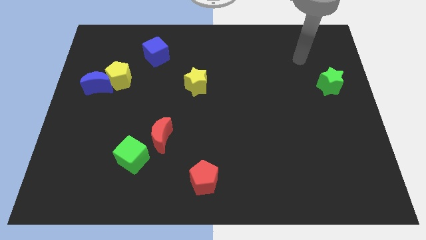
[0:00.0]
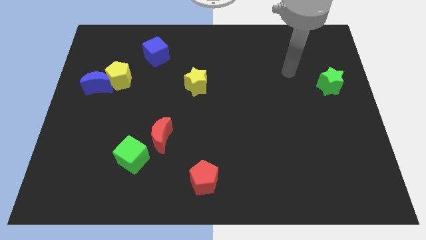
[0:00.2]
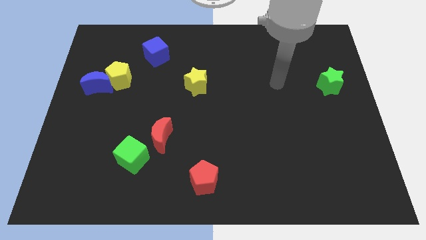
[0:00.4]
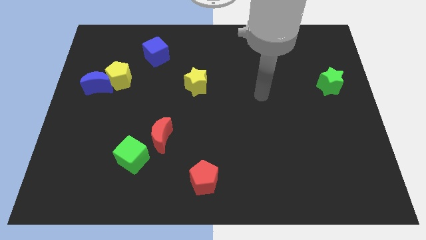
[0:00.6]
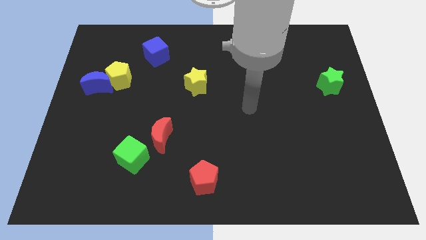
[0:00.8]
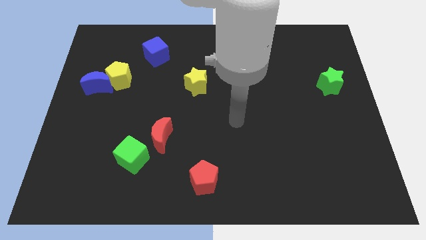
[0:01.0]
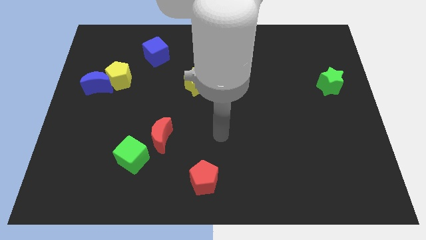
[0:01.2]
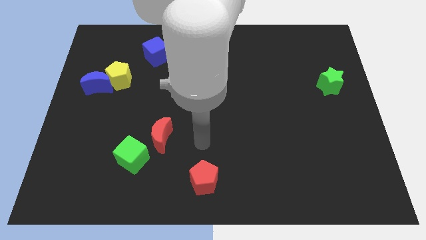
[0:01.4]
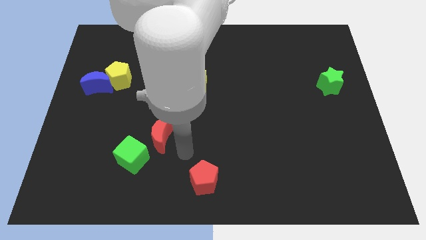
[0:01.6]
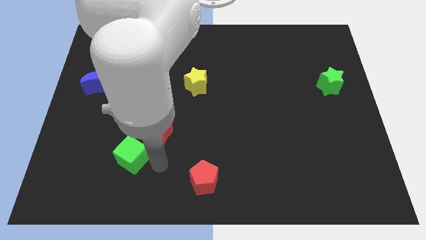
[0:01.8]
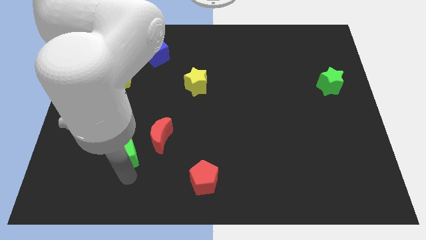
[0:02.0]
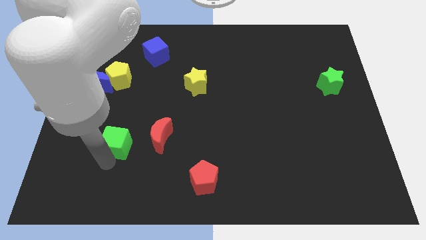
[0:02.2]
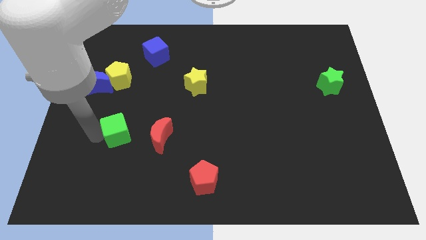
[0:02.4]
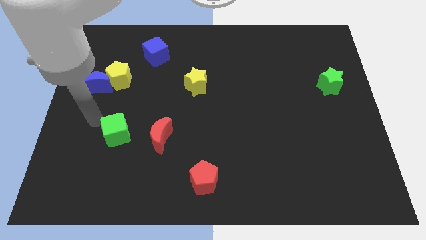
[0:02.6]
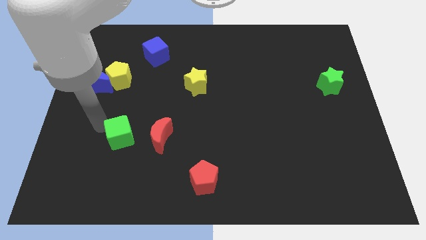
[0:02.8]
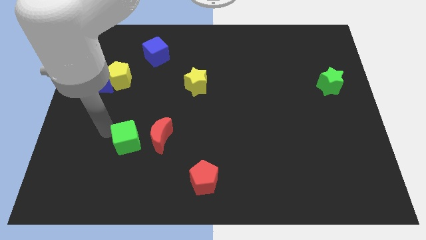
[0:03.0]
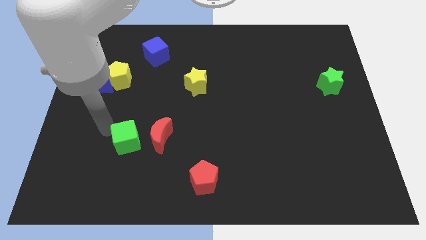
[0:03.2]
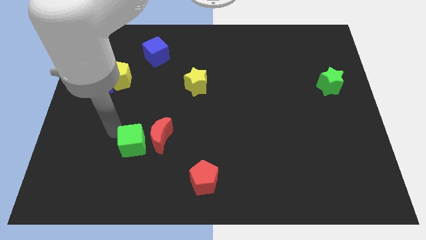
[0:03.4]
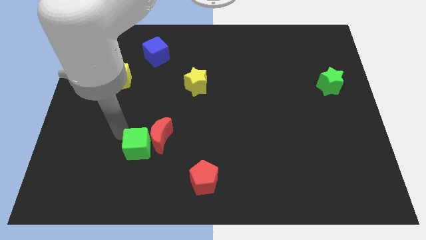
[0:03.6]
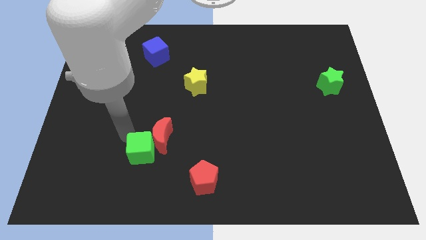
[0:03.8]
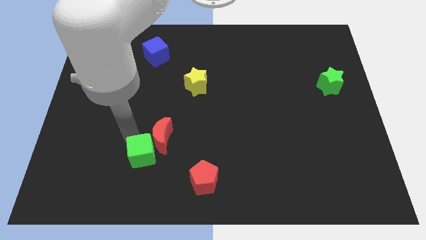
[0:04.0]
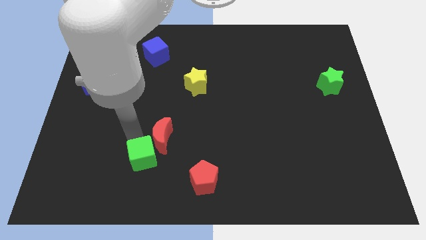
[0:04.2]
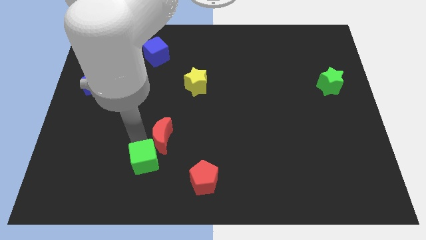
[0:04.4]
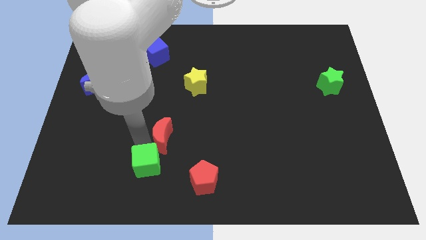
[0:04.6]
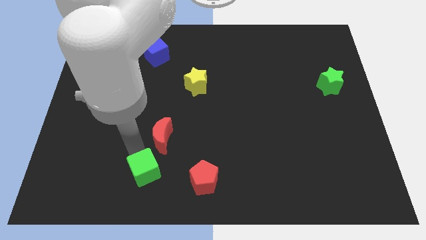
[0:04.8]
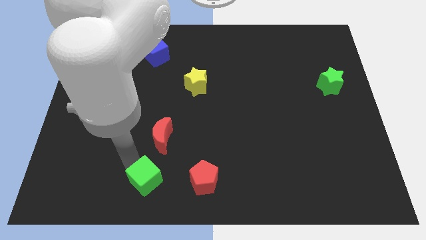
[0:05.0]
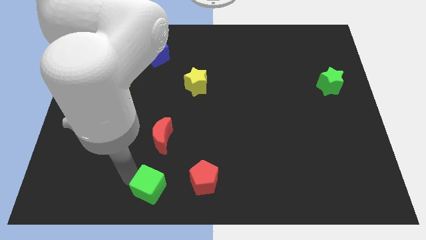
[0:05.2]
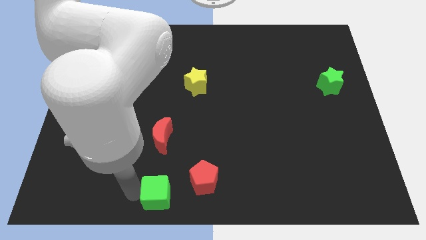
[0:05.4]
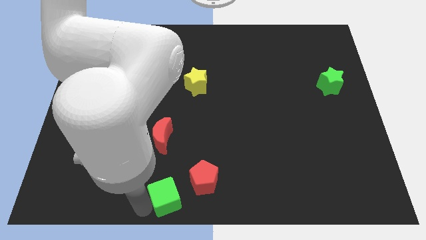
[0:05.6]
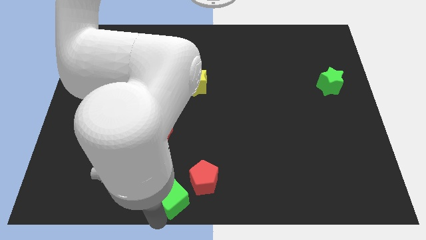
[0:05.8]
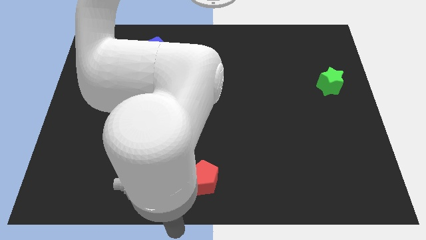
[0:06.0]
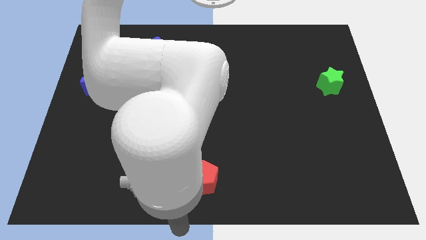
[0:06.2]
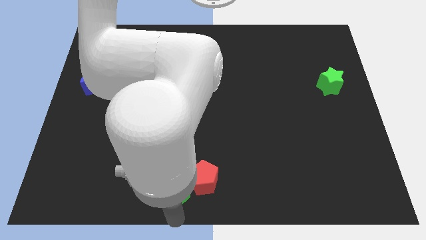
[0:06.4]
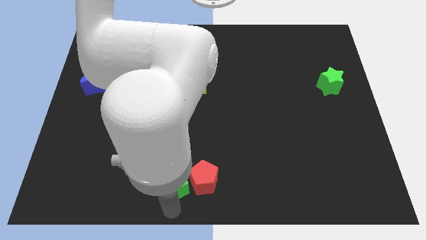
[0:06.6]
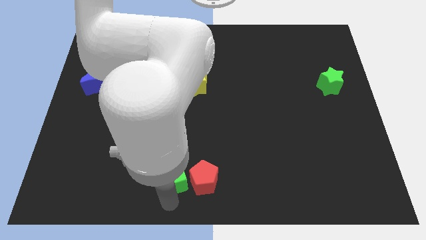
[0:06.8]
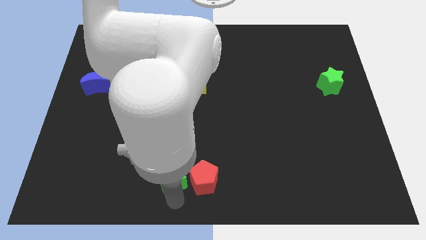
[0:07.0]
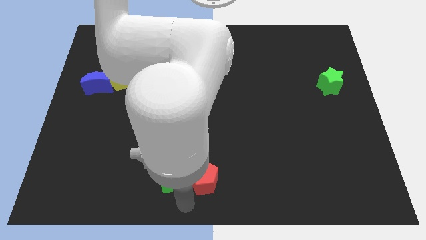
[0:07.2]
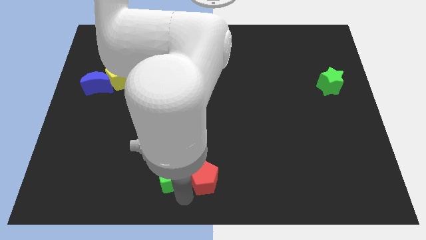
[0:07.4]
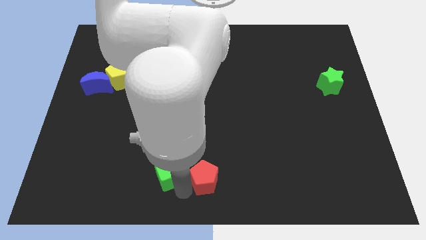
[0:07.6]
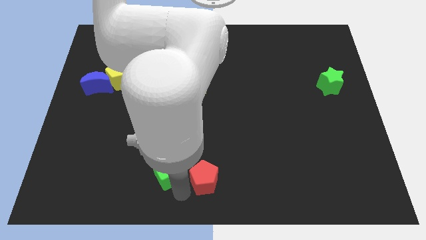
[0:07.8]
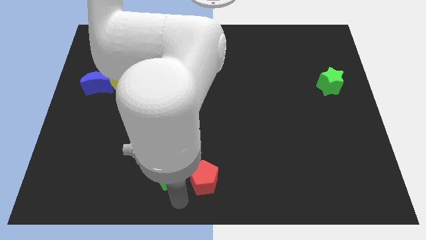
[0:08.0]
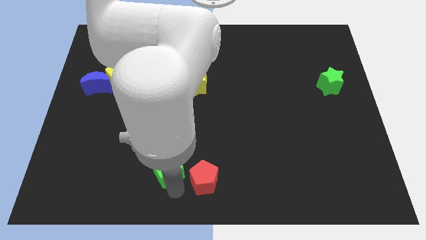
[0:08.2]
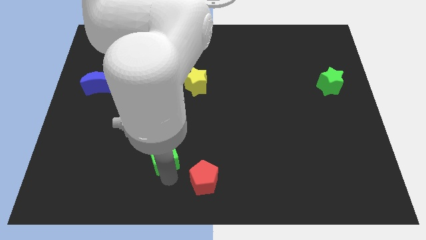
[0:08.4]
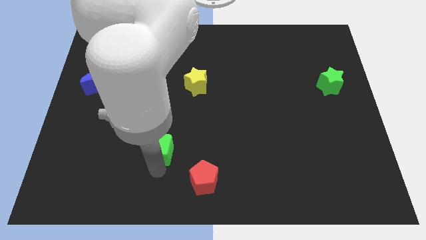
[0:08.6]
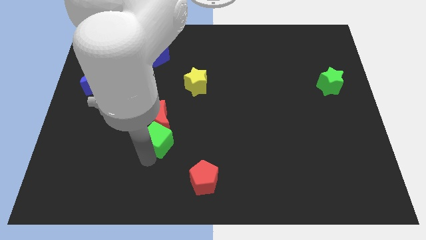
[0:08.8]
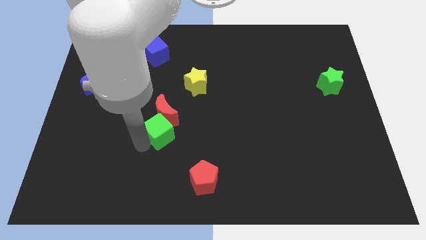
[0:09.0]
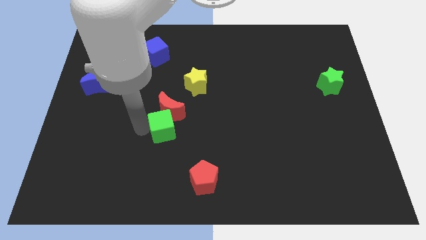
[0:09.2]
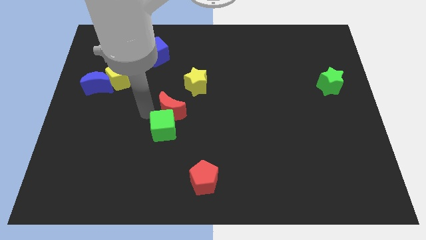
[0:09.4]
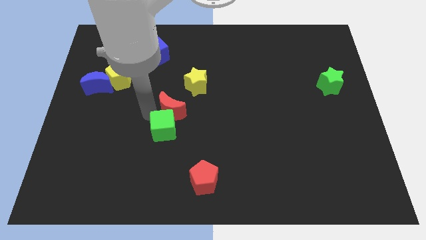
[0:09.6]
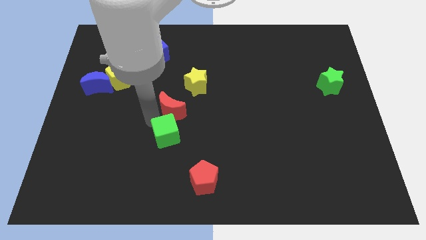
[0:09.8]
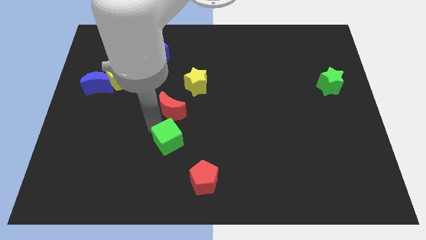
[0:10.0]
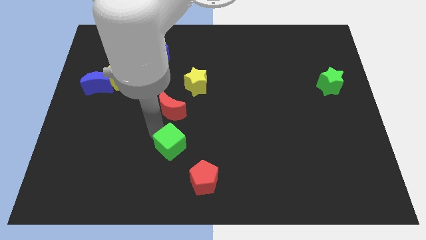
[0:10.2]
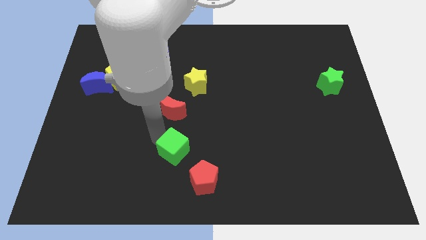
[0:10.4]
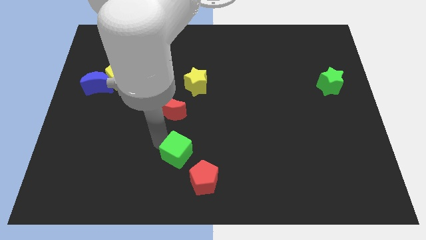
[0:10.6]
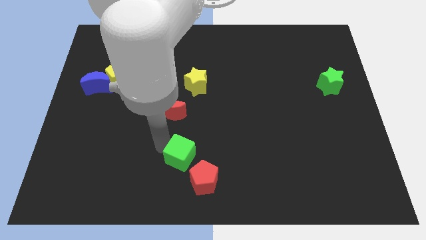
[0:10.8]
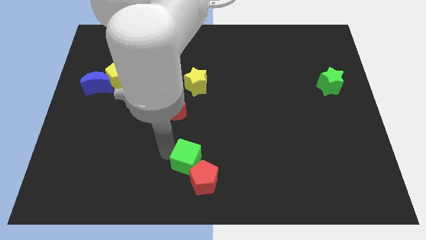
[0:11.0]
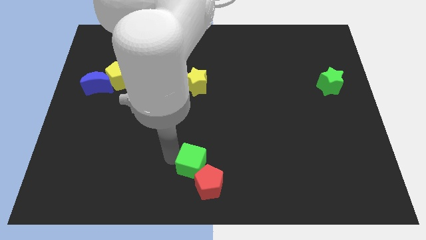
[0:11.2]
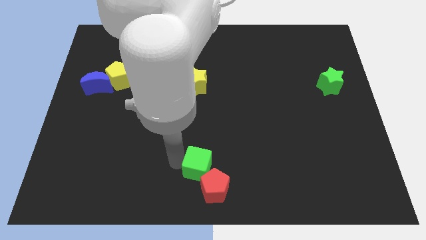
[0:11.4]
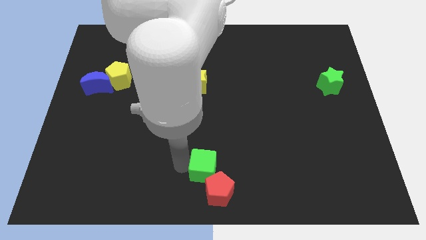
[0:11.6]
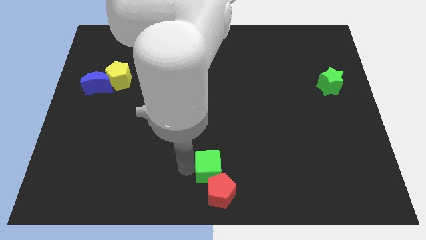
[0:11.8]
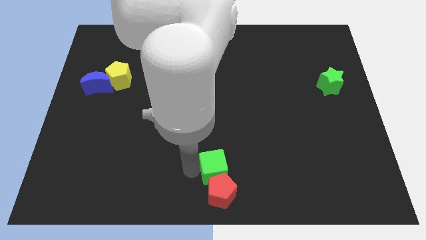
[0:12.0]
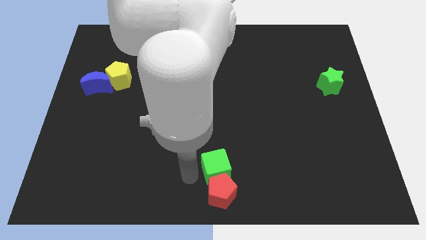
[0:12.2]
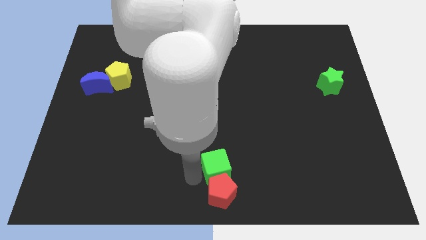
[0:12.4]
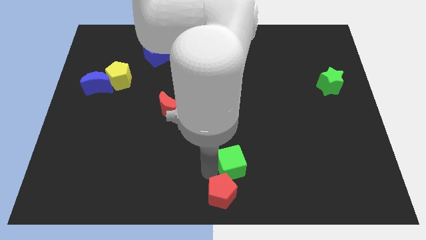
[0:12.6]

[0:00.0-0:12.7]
slide the green cube to the right

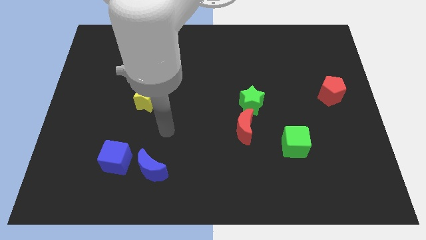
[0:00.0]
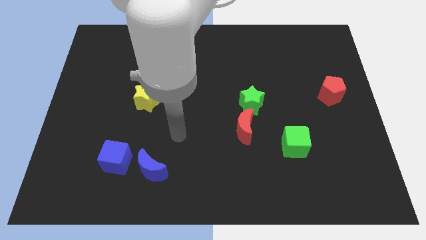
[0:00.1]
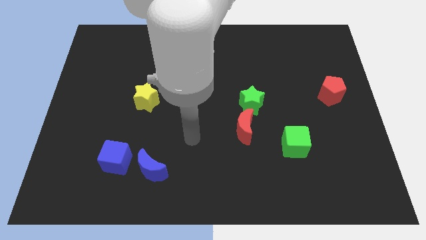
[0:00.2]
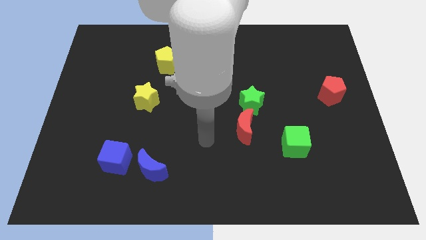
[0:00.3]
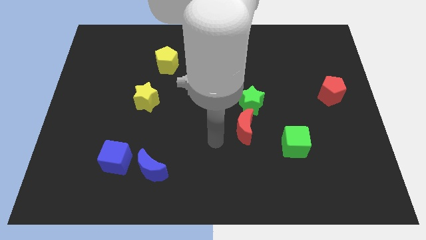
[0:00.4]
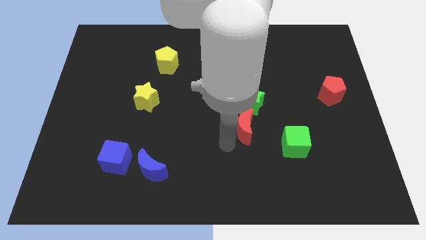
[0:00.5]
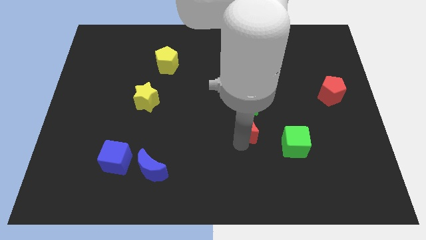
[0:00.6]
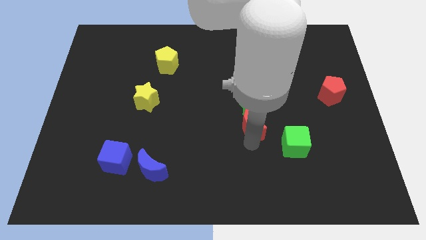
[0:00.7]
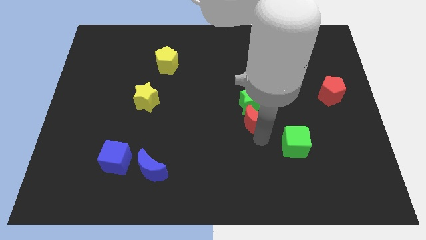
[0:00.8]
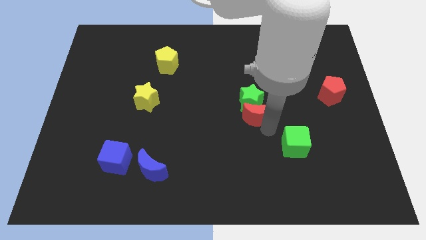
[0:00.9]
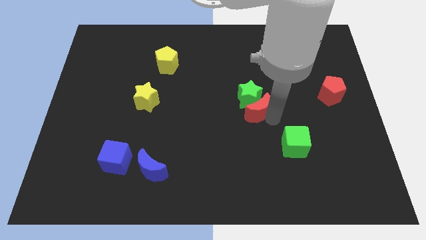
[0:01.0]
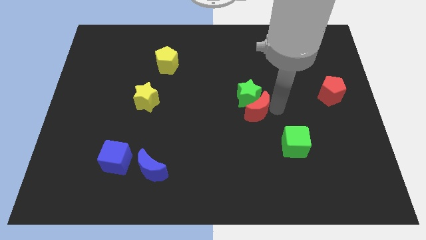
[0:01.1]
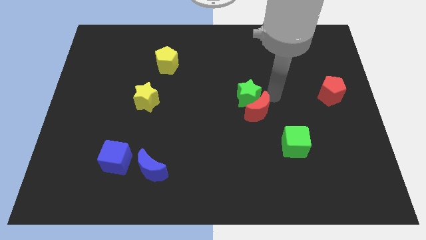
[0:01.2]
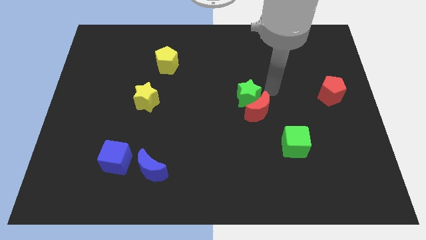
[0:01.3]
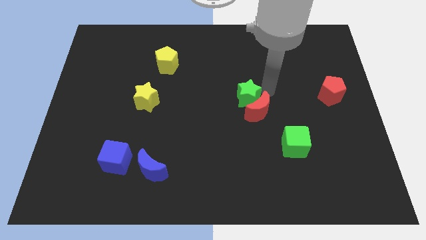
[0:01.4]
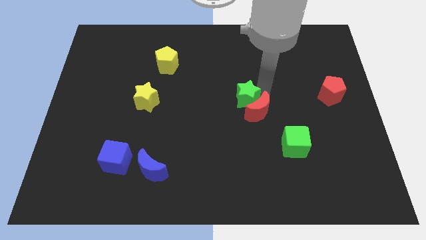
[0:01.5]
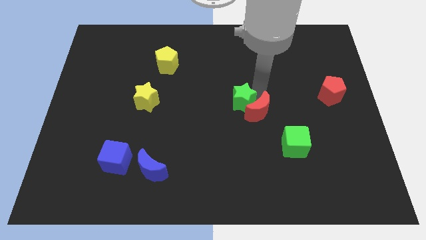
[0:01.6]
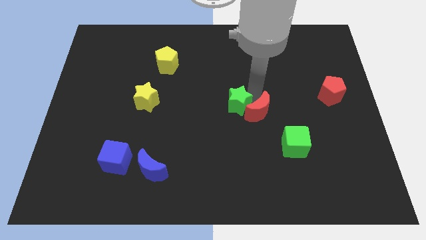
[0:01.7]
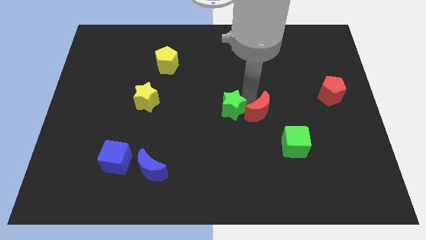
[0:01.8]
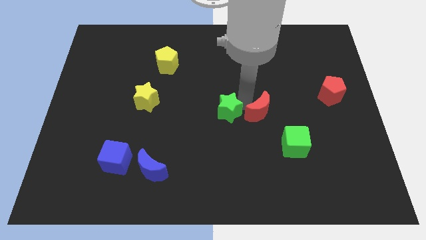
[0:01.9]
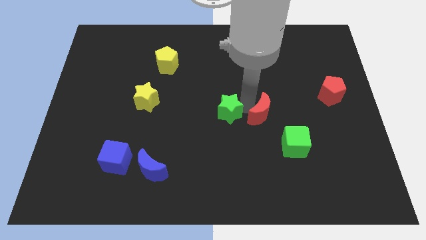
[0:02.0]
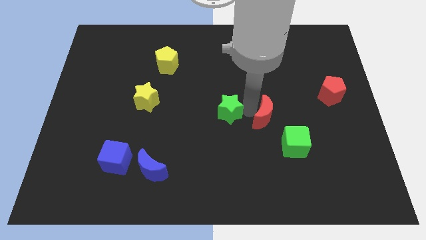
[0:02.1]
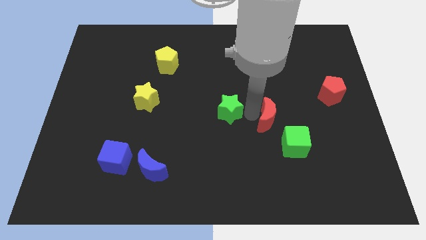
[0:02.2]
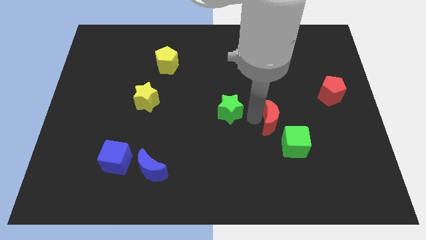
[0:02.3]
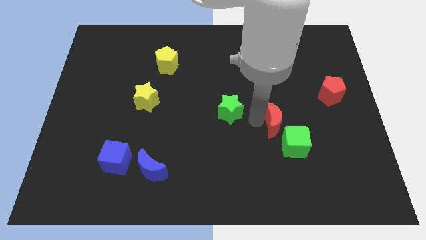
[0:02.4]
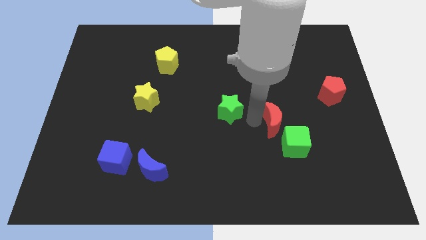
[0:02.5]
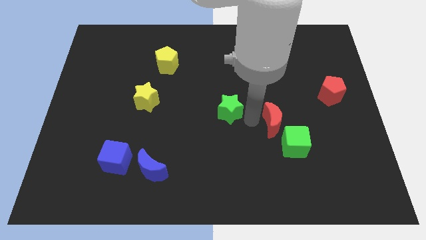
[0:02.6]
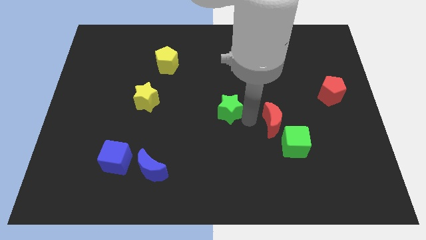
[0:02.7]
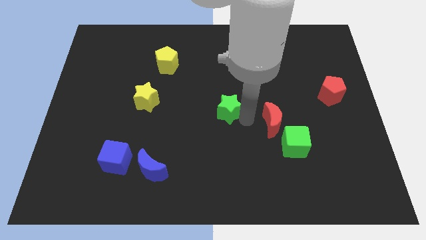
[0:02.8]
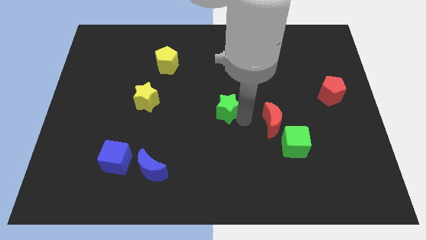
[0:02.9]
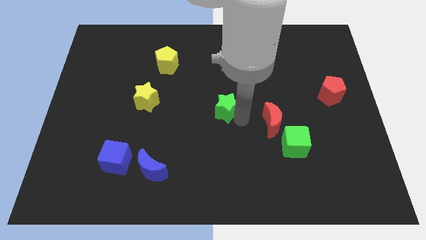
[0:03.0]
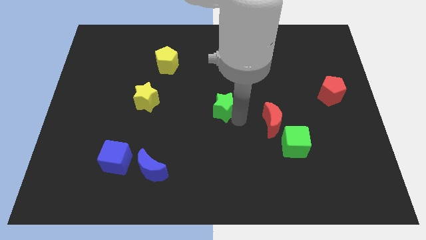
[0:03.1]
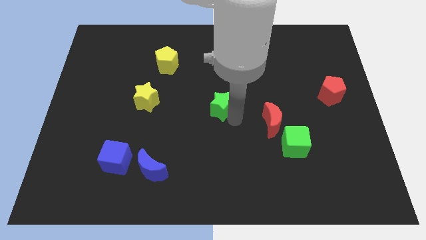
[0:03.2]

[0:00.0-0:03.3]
slide the green star a little bit left
